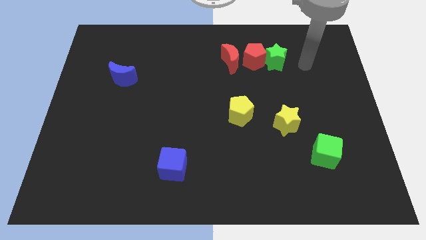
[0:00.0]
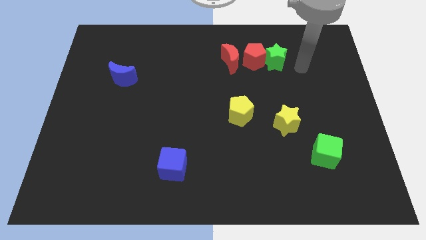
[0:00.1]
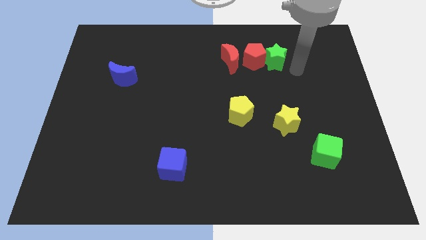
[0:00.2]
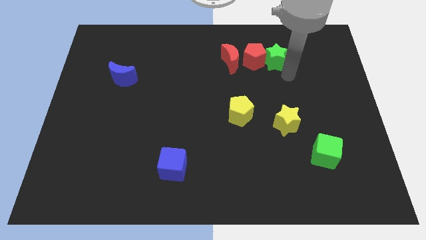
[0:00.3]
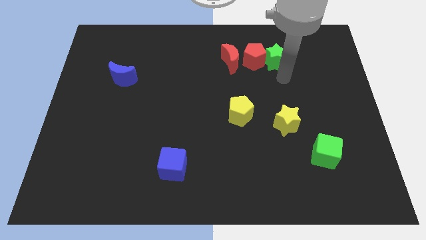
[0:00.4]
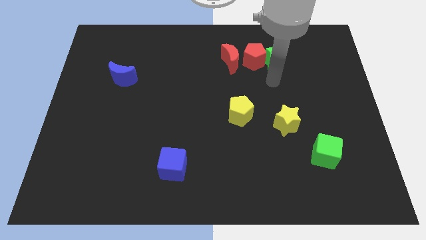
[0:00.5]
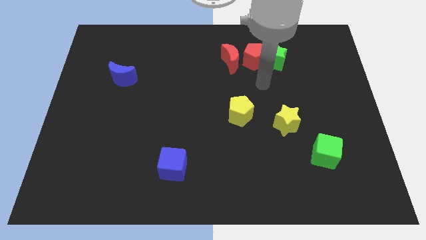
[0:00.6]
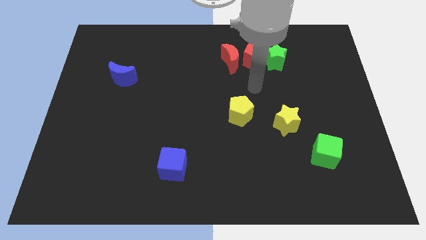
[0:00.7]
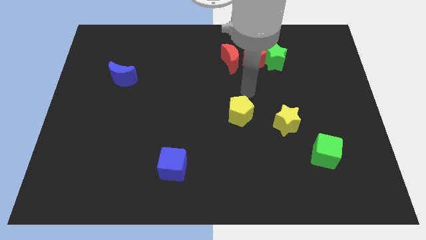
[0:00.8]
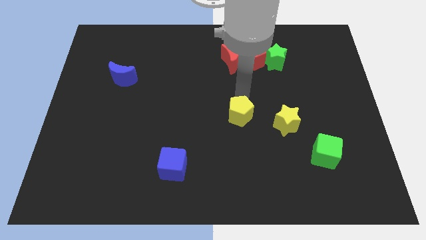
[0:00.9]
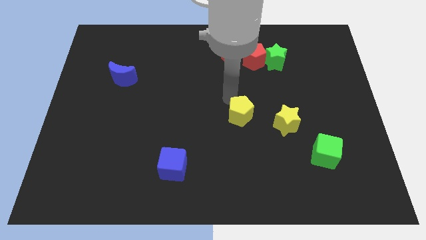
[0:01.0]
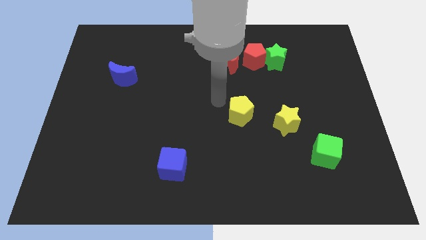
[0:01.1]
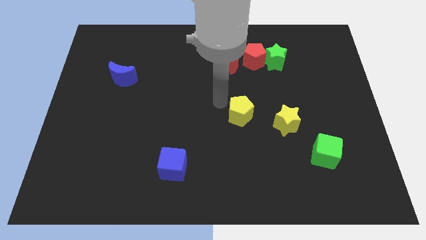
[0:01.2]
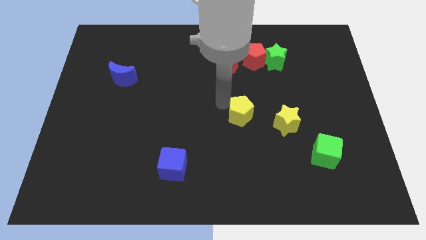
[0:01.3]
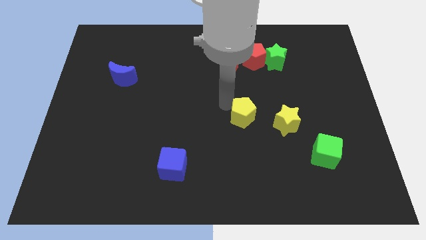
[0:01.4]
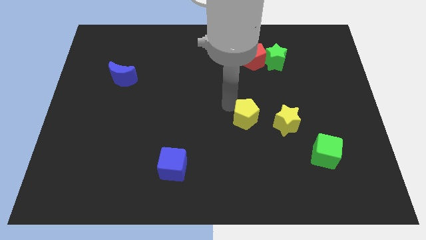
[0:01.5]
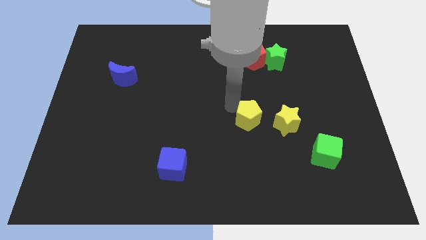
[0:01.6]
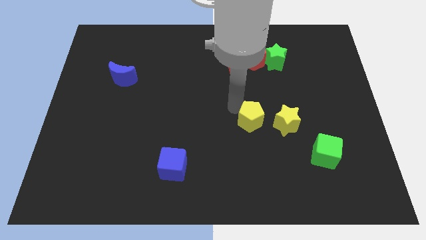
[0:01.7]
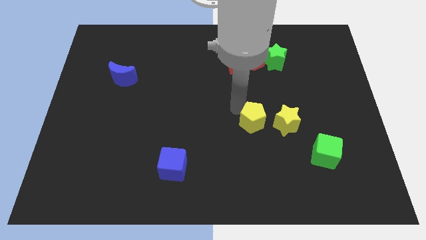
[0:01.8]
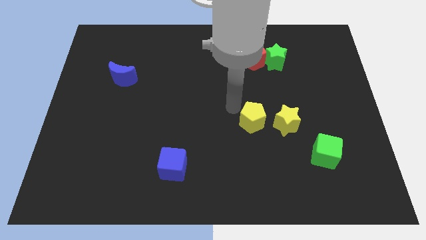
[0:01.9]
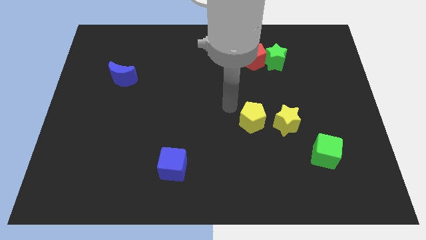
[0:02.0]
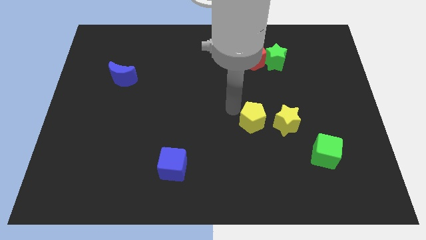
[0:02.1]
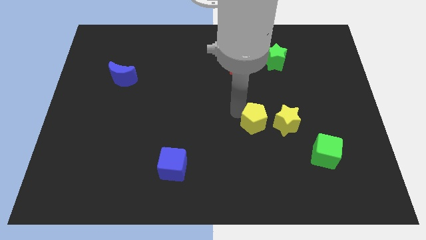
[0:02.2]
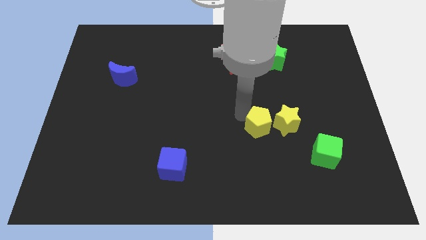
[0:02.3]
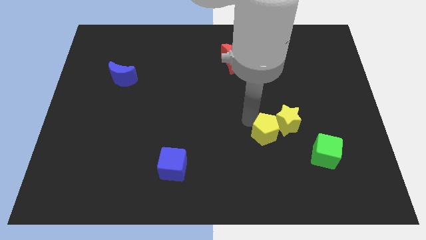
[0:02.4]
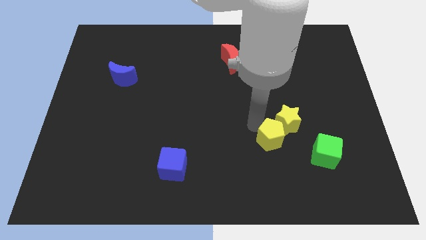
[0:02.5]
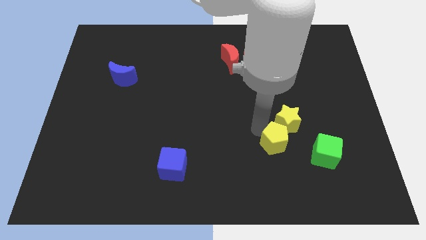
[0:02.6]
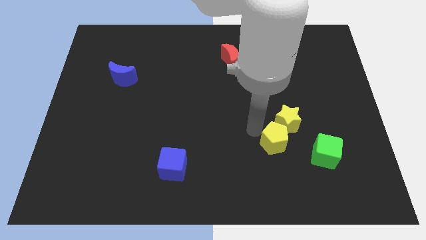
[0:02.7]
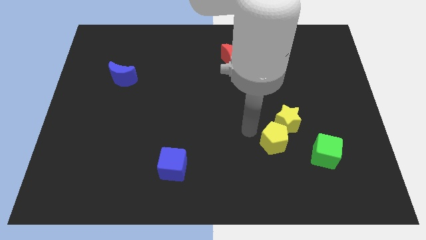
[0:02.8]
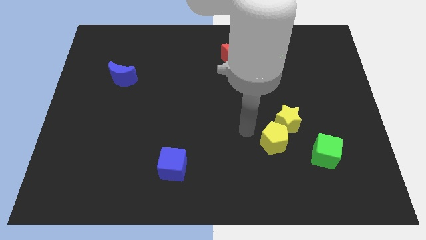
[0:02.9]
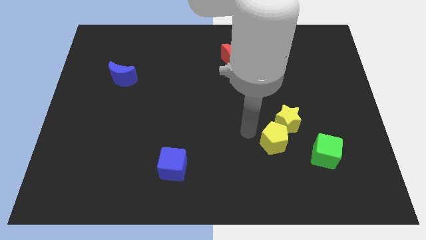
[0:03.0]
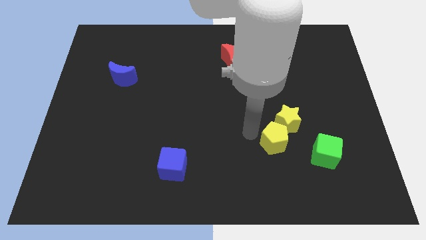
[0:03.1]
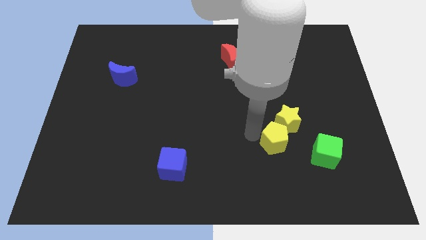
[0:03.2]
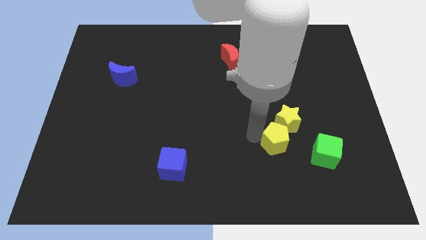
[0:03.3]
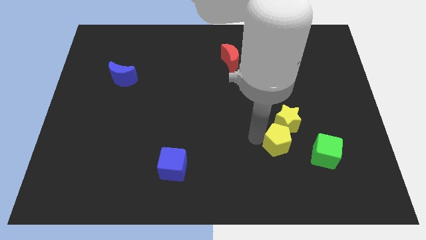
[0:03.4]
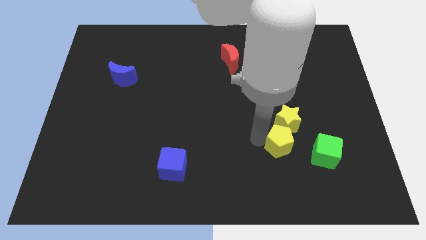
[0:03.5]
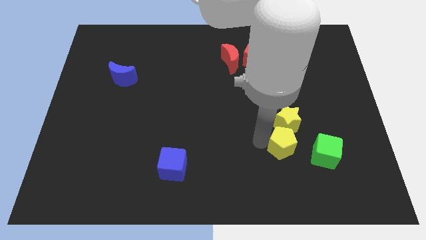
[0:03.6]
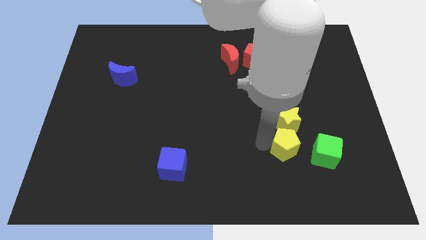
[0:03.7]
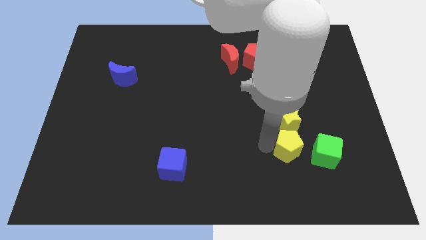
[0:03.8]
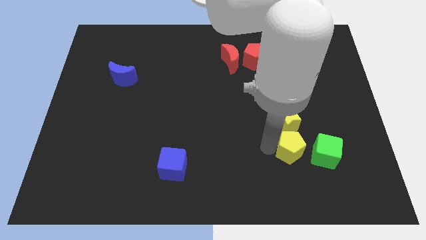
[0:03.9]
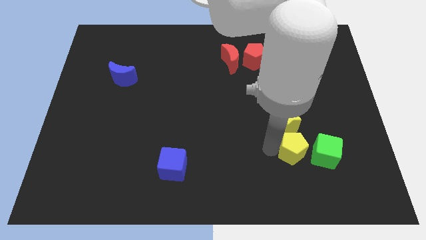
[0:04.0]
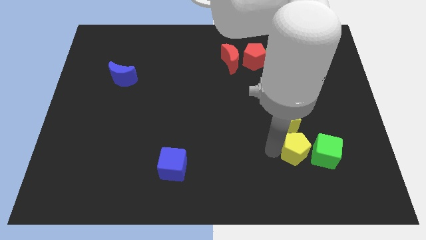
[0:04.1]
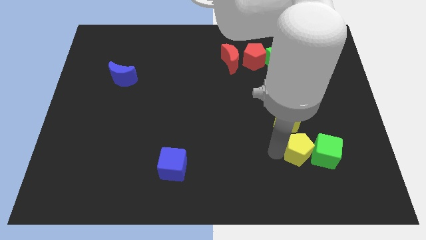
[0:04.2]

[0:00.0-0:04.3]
push the yellow pentagon towards the green cube

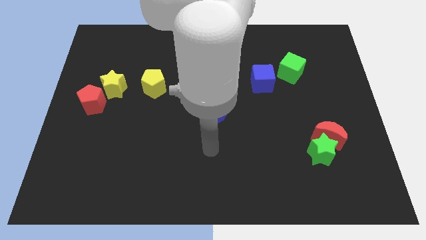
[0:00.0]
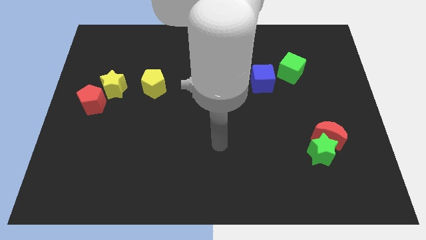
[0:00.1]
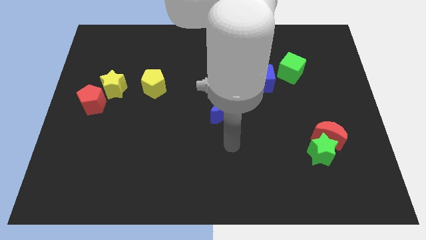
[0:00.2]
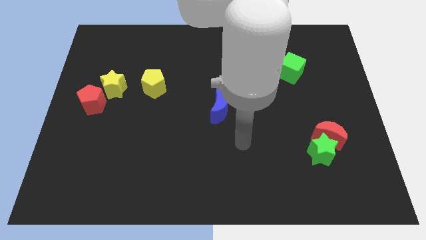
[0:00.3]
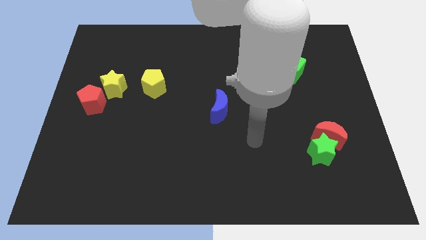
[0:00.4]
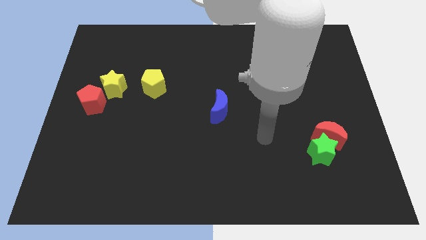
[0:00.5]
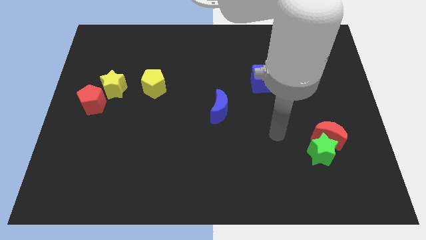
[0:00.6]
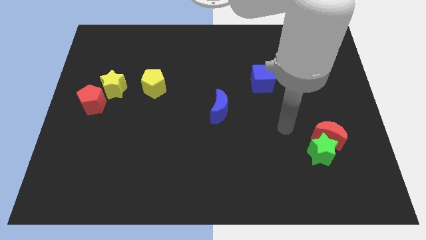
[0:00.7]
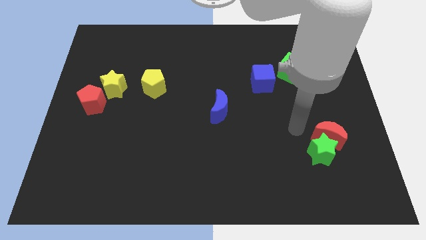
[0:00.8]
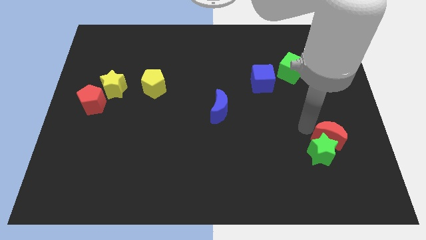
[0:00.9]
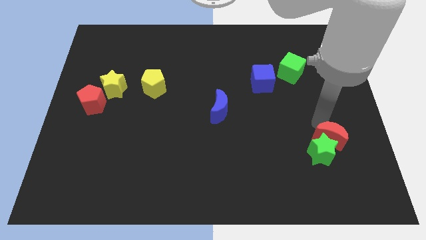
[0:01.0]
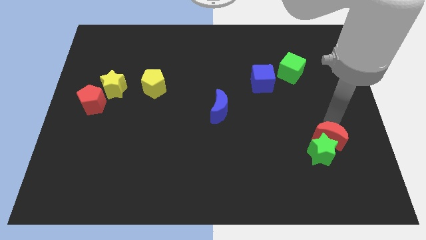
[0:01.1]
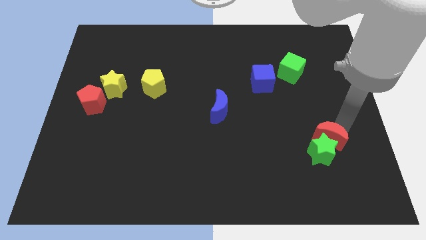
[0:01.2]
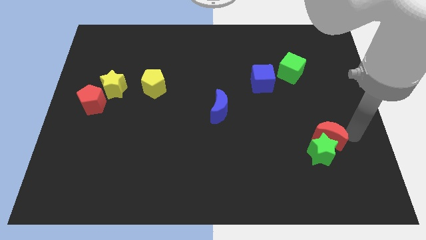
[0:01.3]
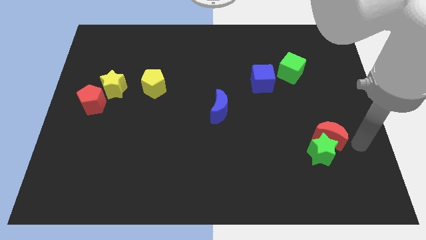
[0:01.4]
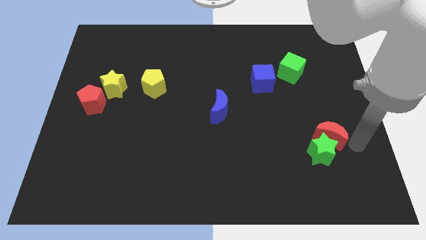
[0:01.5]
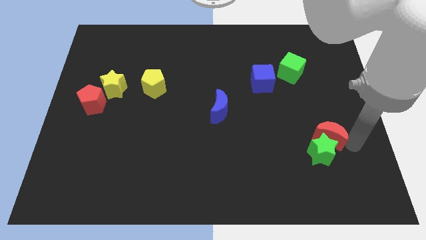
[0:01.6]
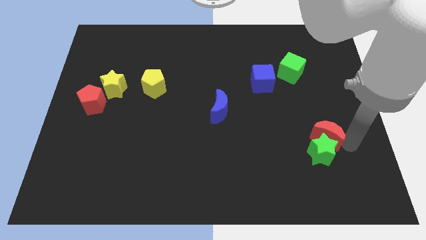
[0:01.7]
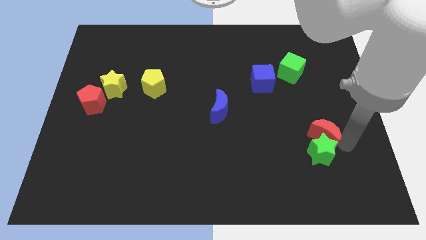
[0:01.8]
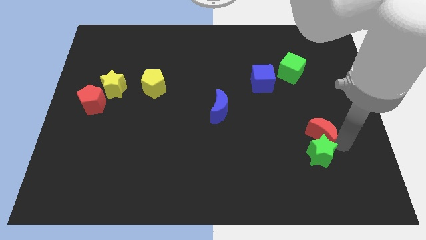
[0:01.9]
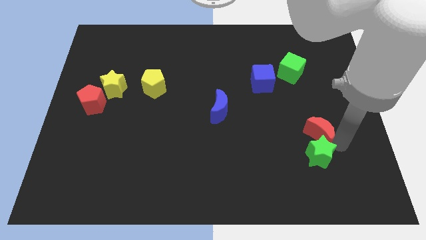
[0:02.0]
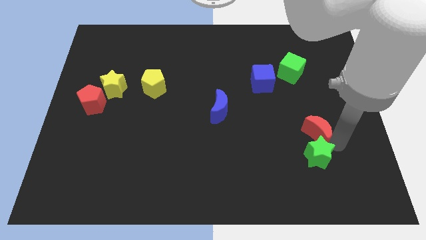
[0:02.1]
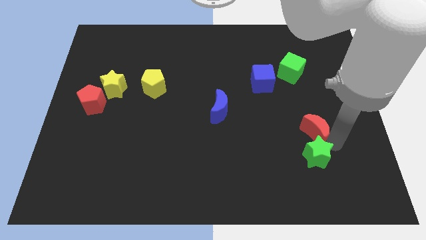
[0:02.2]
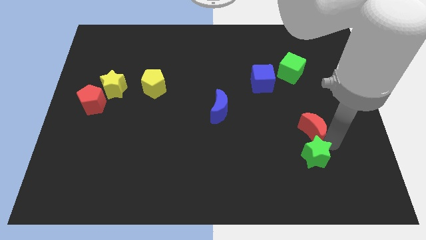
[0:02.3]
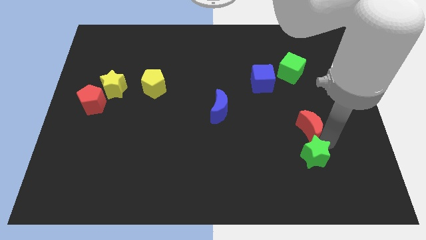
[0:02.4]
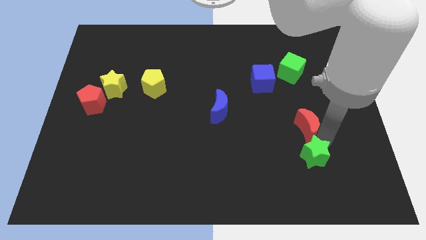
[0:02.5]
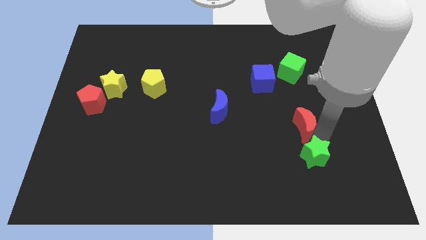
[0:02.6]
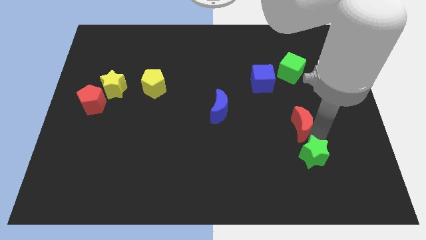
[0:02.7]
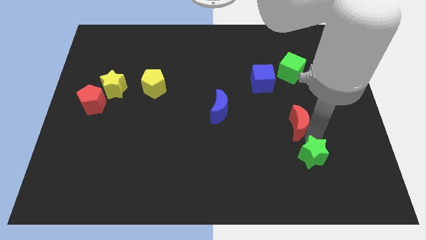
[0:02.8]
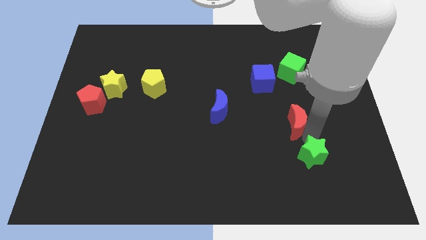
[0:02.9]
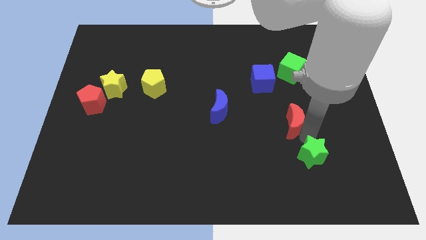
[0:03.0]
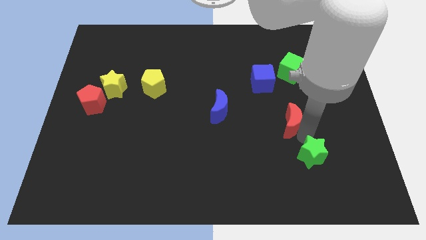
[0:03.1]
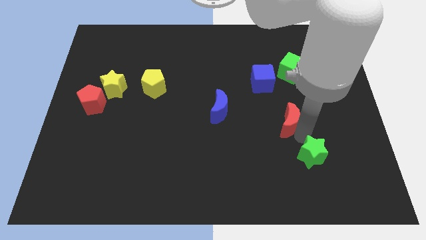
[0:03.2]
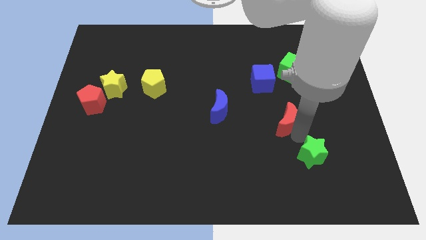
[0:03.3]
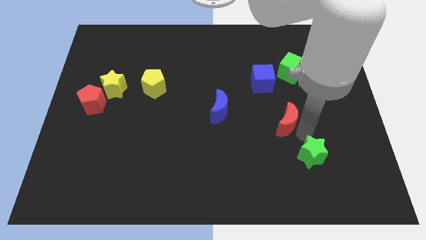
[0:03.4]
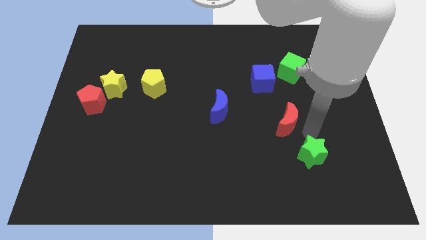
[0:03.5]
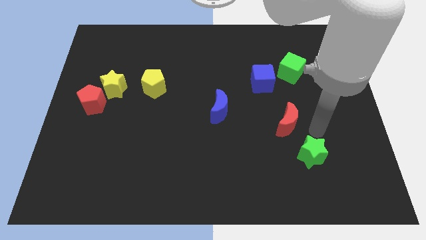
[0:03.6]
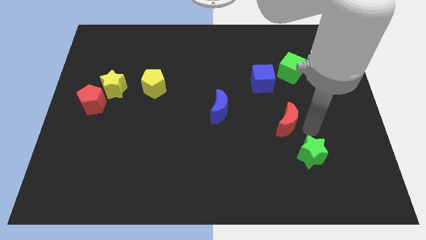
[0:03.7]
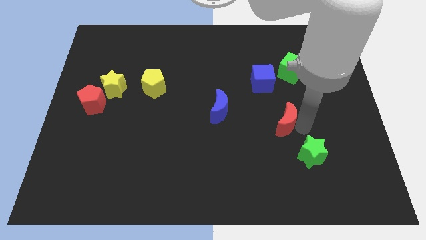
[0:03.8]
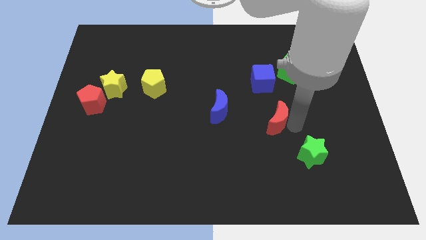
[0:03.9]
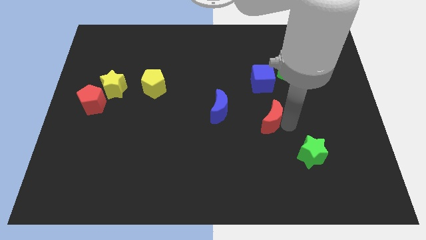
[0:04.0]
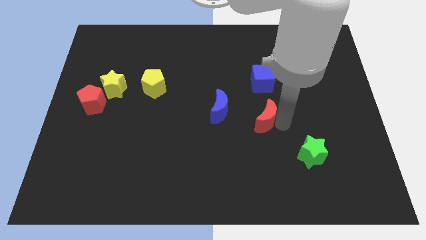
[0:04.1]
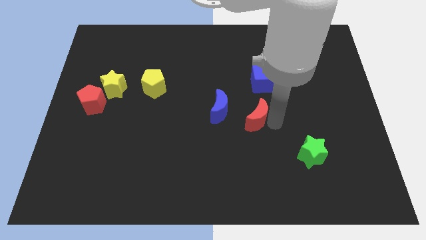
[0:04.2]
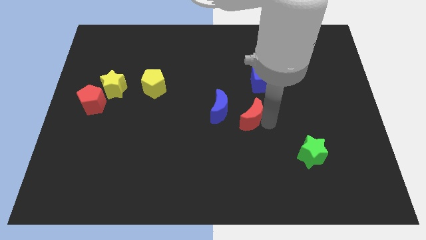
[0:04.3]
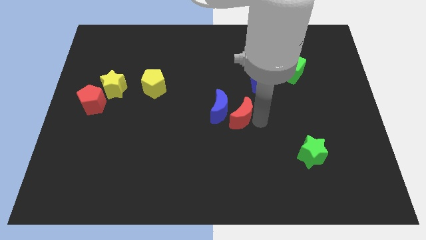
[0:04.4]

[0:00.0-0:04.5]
slide the red moon to the blue moon
